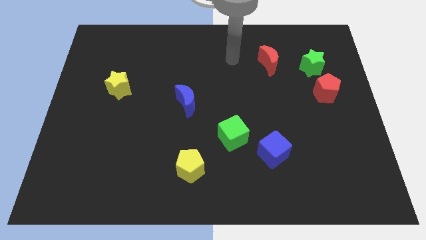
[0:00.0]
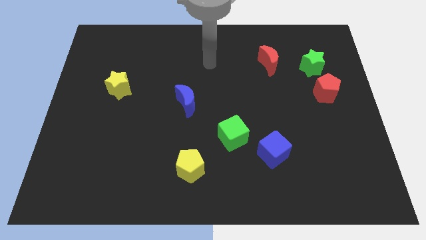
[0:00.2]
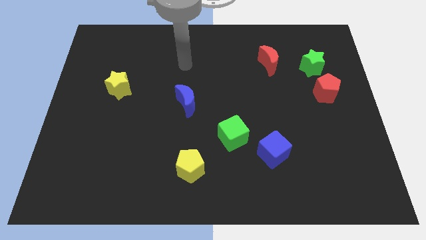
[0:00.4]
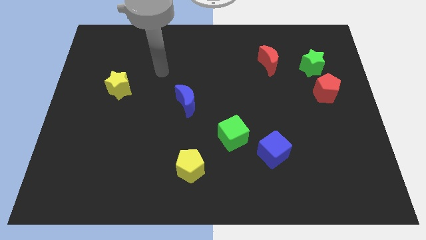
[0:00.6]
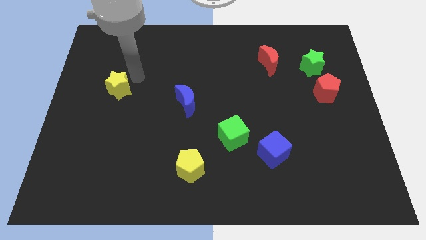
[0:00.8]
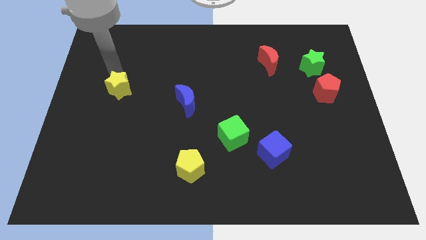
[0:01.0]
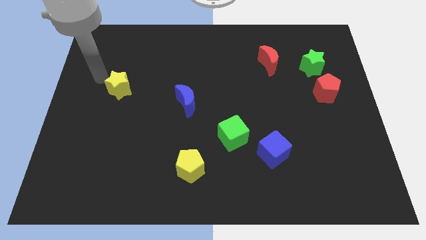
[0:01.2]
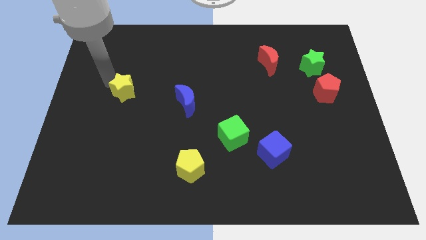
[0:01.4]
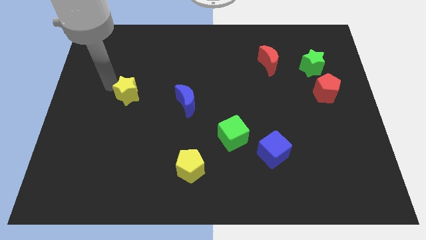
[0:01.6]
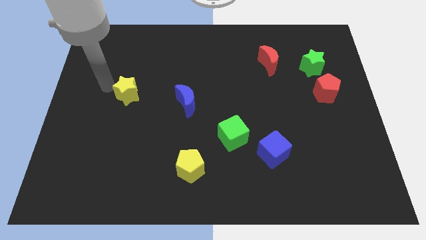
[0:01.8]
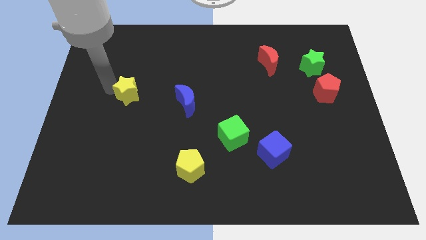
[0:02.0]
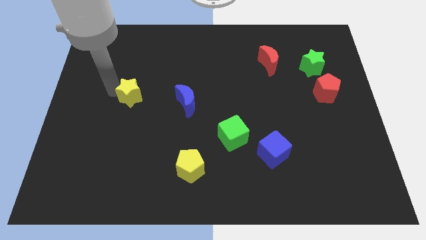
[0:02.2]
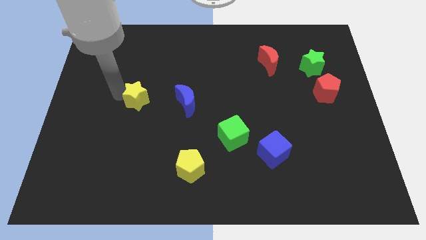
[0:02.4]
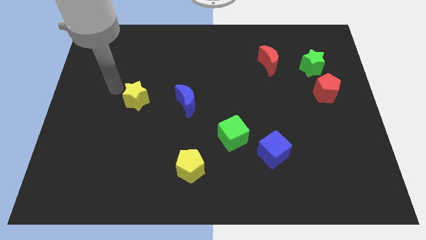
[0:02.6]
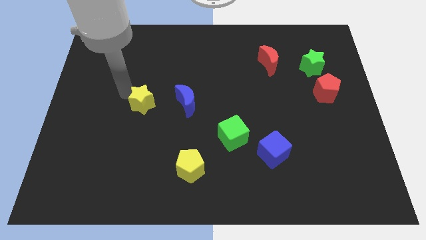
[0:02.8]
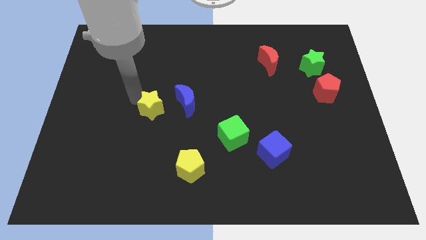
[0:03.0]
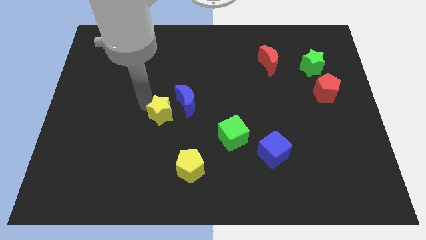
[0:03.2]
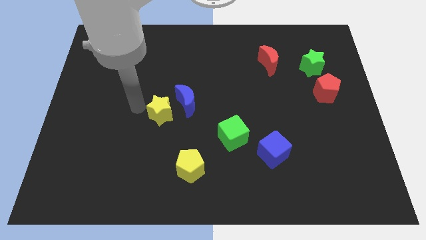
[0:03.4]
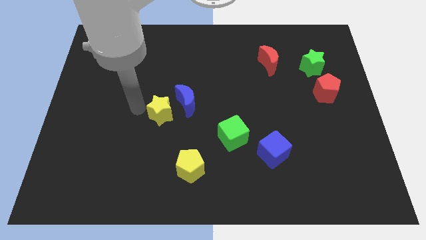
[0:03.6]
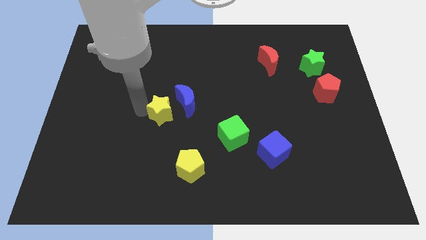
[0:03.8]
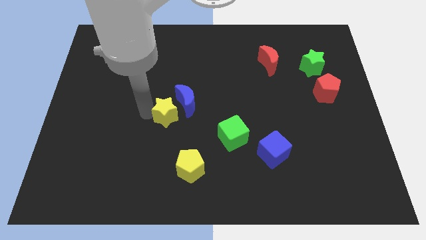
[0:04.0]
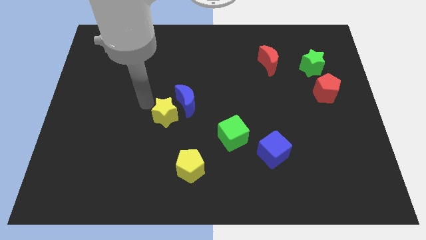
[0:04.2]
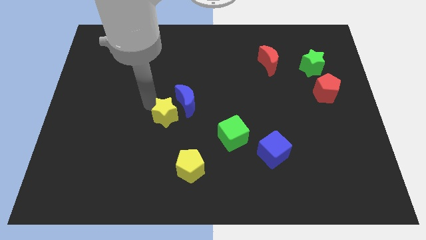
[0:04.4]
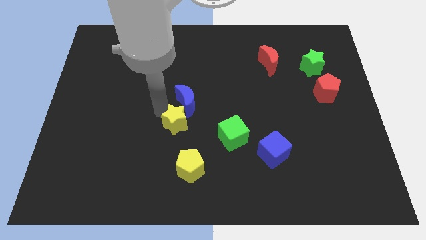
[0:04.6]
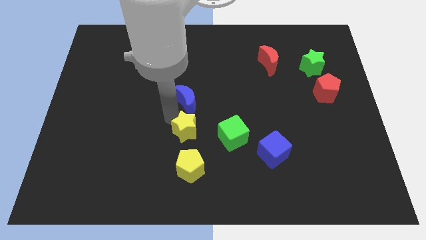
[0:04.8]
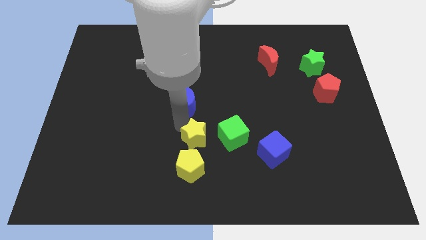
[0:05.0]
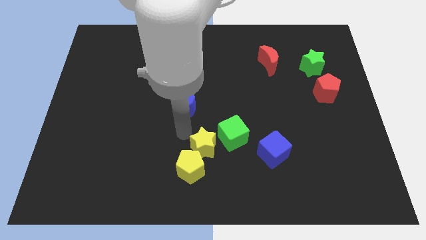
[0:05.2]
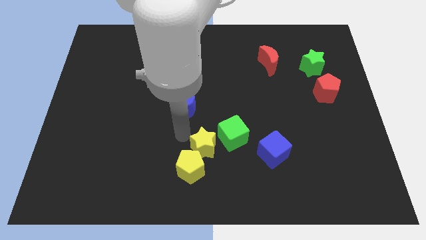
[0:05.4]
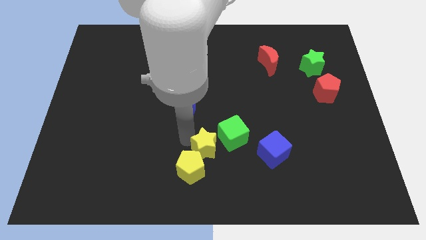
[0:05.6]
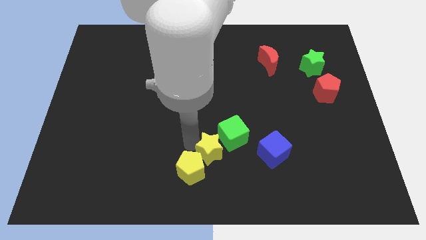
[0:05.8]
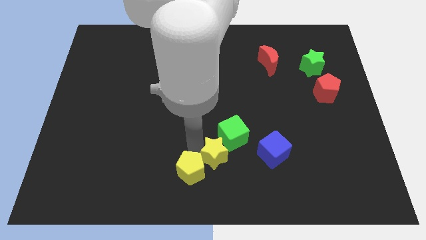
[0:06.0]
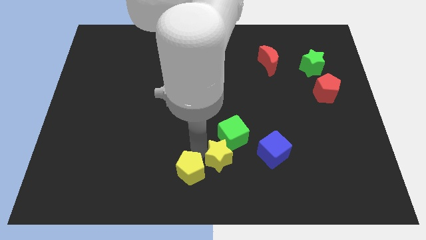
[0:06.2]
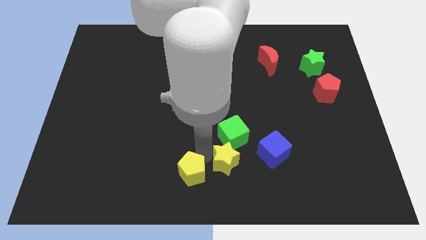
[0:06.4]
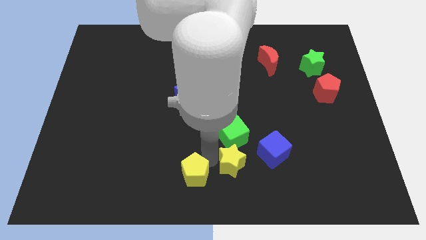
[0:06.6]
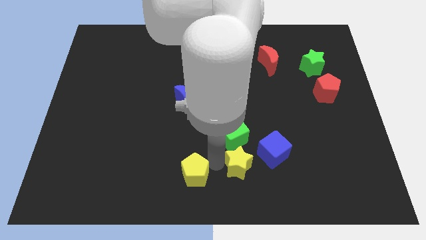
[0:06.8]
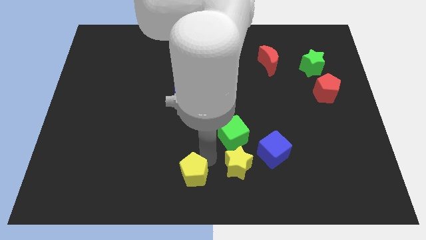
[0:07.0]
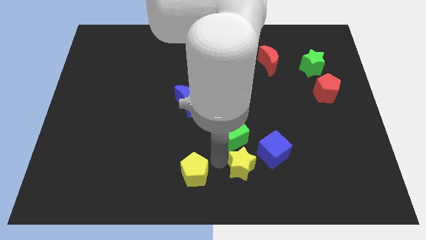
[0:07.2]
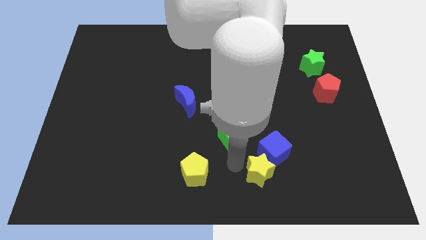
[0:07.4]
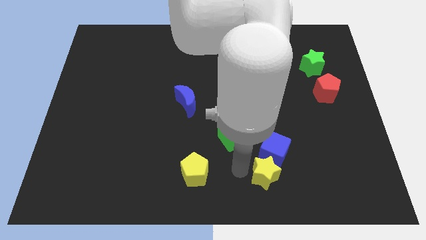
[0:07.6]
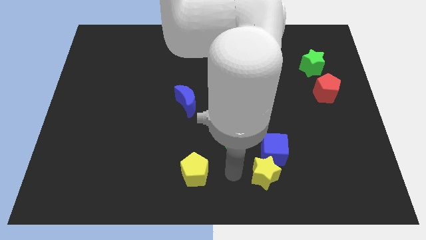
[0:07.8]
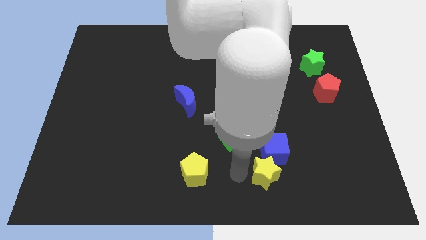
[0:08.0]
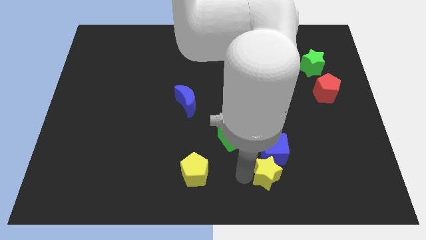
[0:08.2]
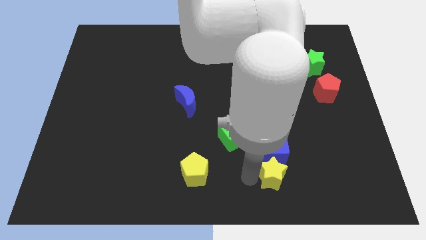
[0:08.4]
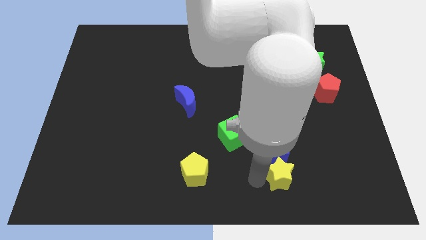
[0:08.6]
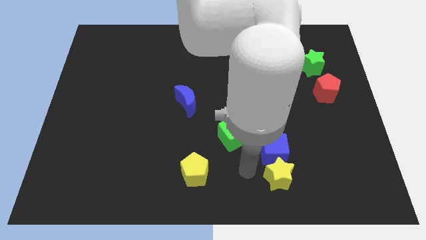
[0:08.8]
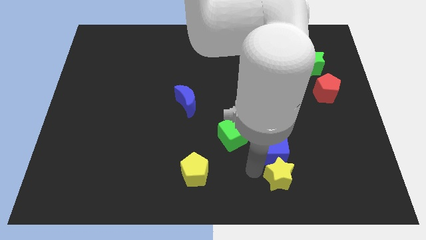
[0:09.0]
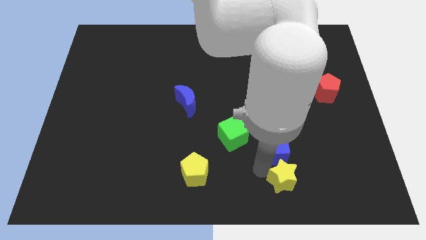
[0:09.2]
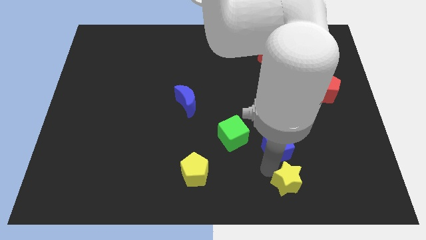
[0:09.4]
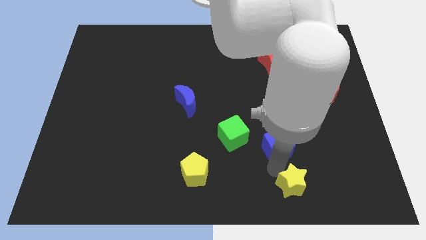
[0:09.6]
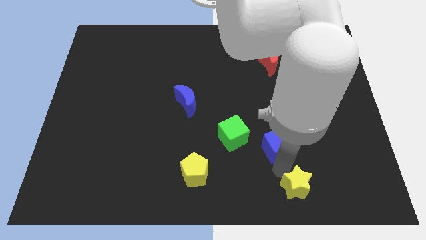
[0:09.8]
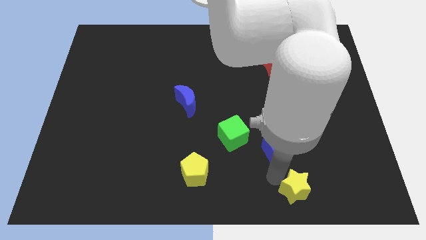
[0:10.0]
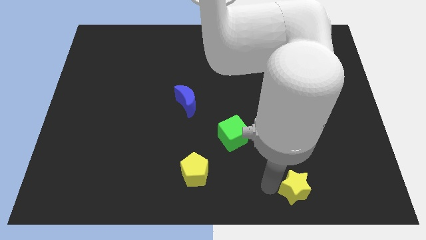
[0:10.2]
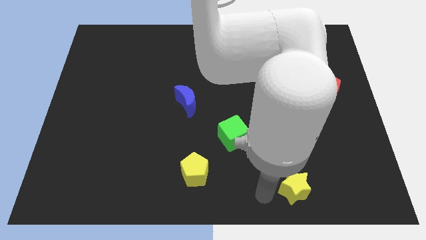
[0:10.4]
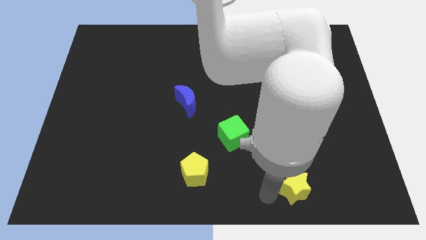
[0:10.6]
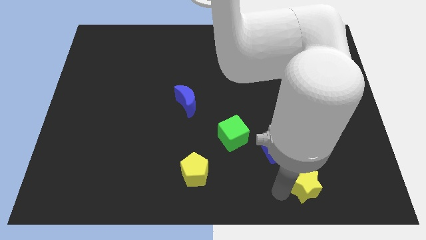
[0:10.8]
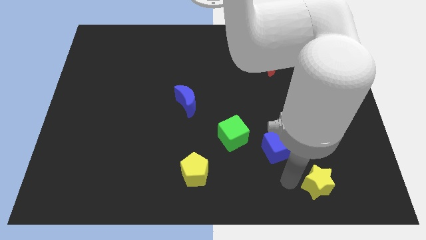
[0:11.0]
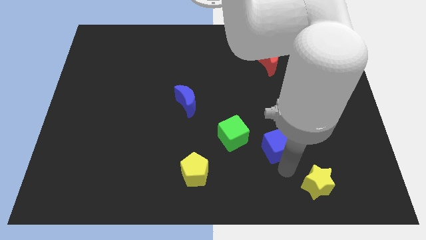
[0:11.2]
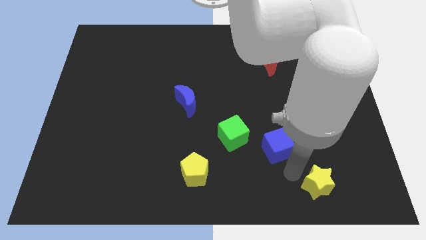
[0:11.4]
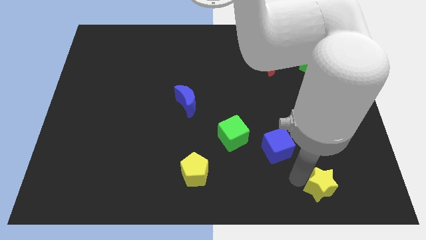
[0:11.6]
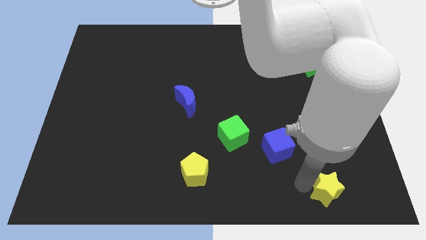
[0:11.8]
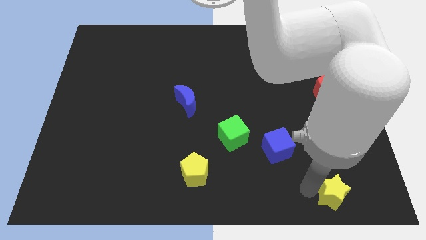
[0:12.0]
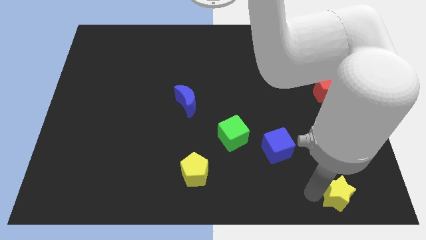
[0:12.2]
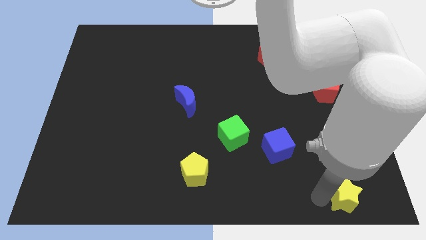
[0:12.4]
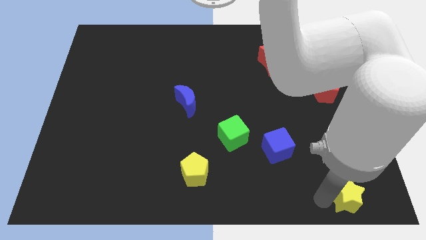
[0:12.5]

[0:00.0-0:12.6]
put the yellow star to the bottom right corner
